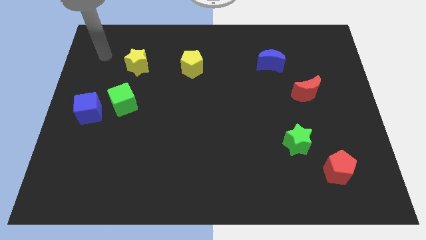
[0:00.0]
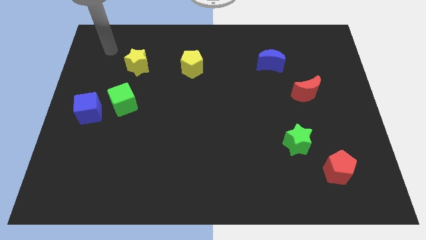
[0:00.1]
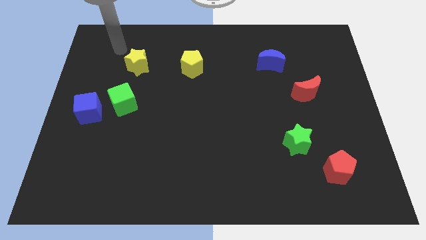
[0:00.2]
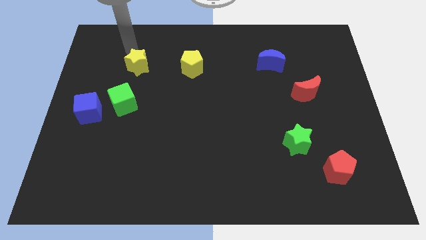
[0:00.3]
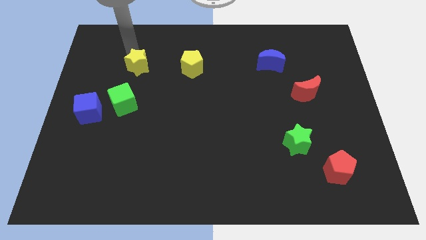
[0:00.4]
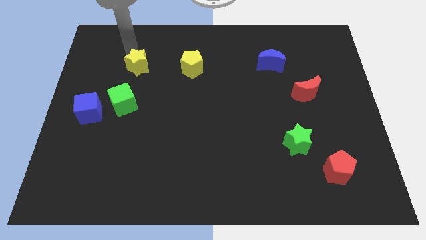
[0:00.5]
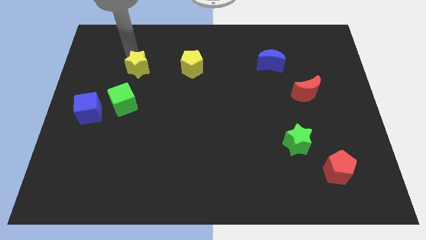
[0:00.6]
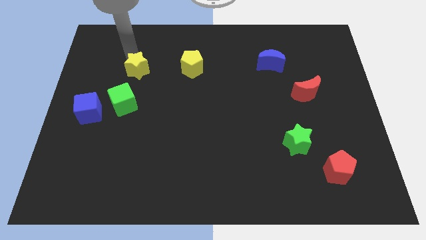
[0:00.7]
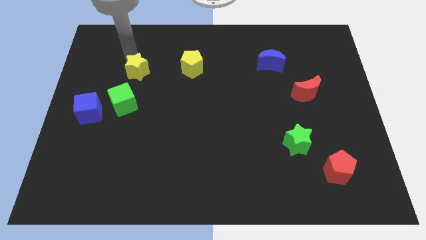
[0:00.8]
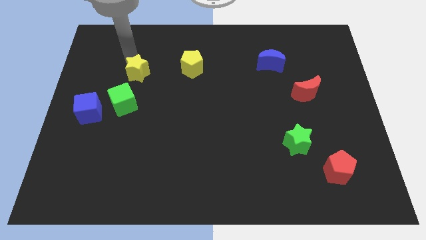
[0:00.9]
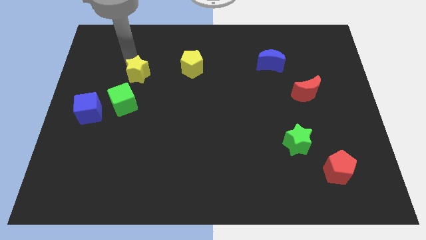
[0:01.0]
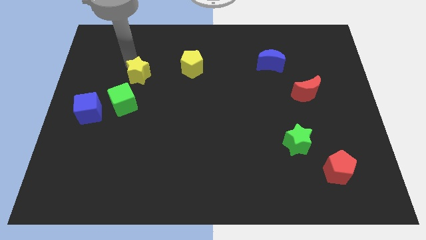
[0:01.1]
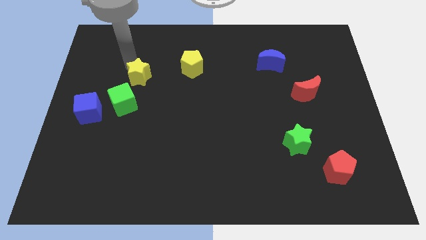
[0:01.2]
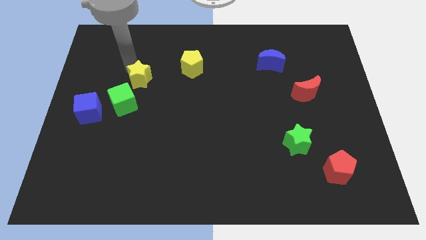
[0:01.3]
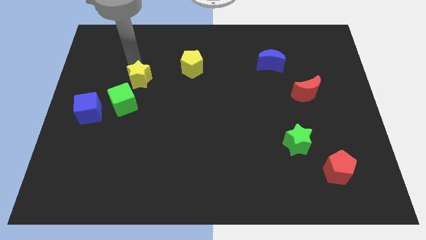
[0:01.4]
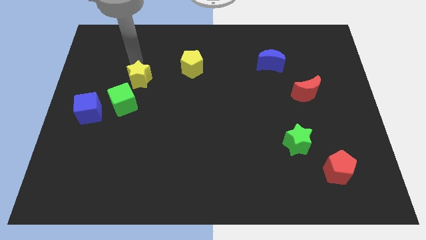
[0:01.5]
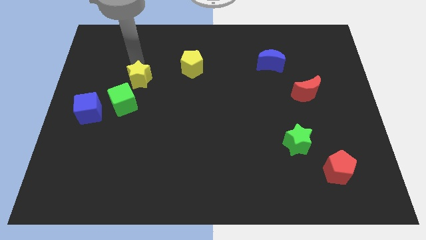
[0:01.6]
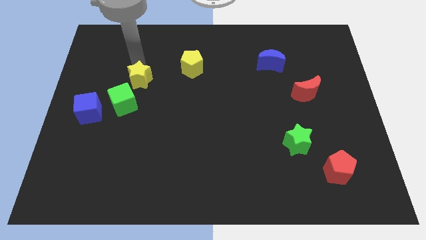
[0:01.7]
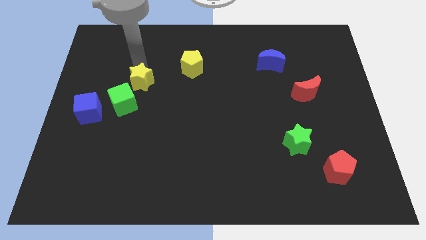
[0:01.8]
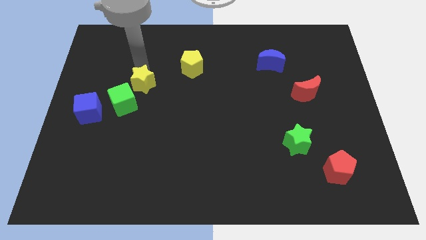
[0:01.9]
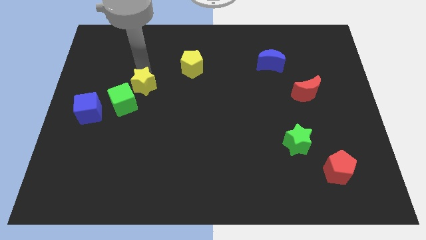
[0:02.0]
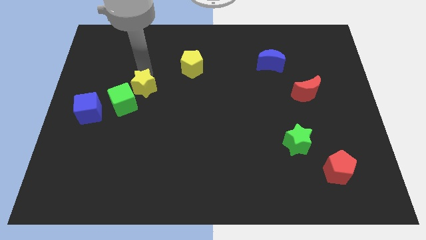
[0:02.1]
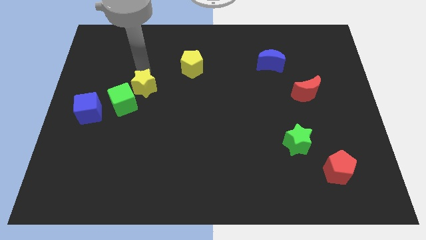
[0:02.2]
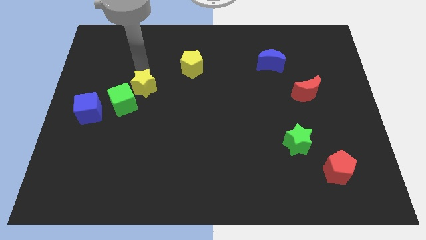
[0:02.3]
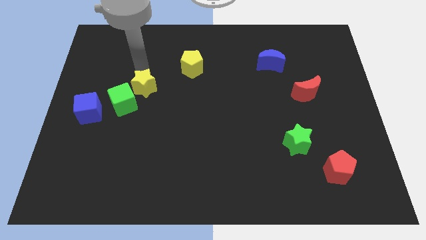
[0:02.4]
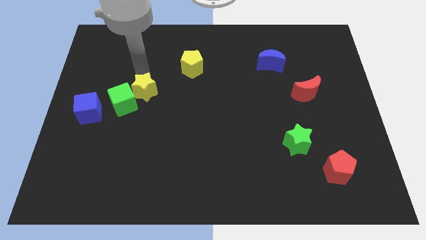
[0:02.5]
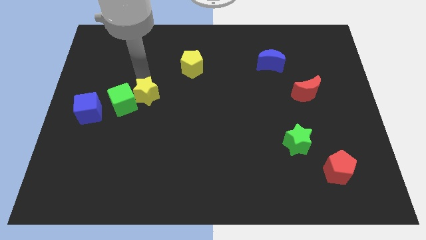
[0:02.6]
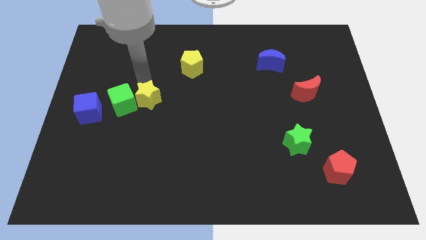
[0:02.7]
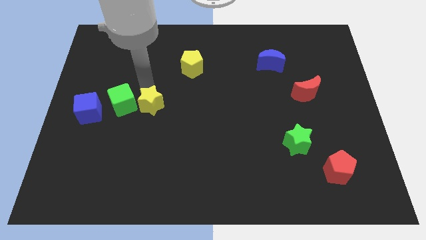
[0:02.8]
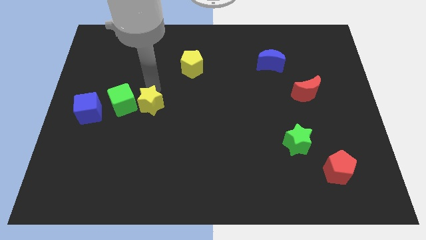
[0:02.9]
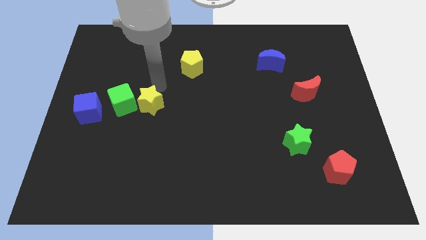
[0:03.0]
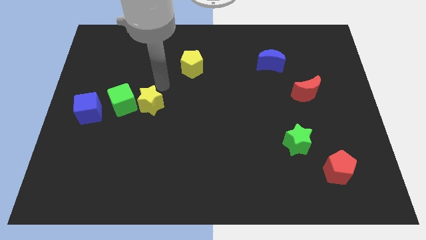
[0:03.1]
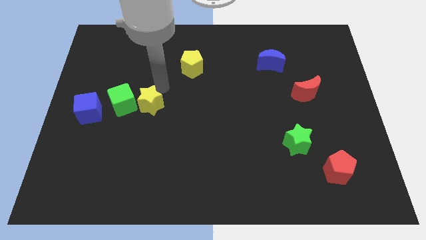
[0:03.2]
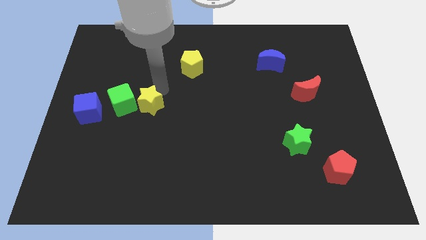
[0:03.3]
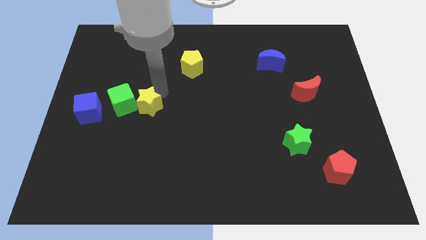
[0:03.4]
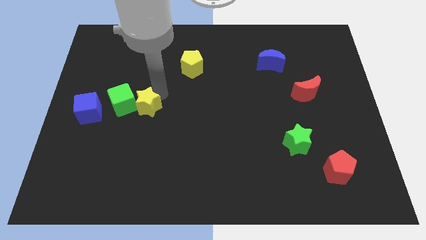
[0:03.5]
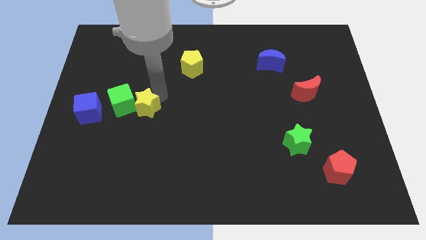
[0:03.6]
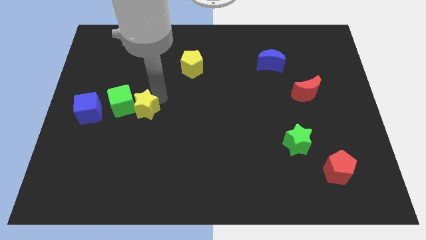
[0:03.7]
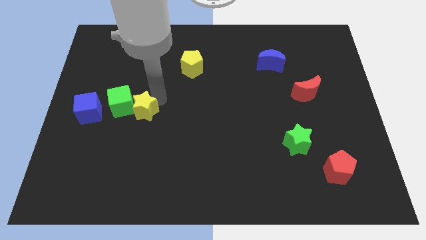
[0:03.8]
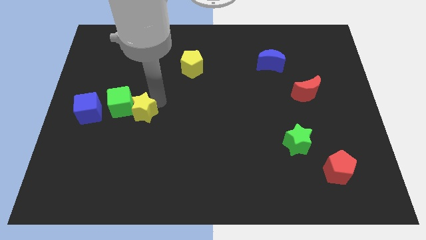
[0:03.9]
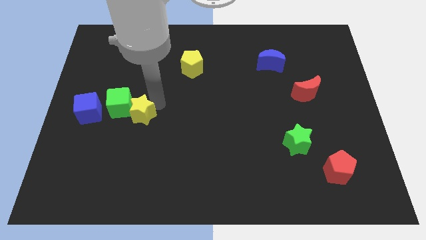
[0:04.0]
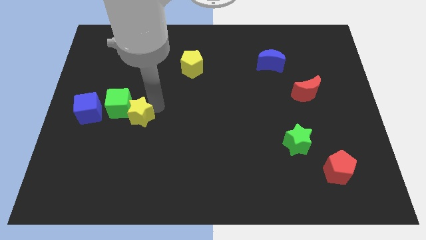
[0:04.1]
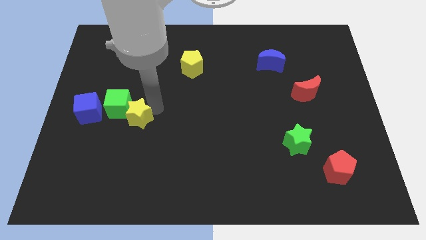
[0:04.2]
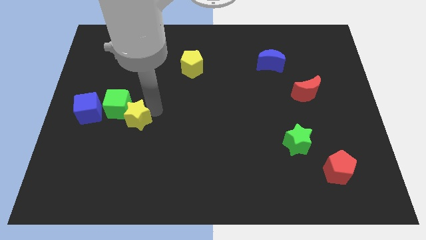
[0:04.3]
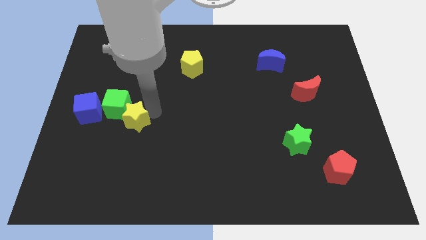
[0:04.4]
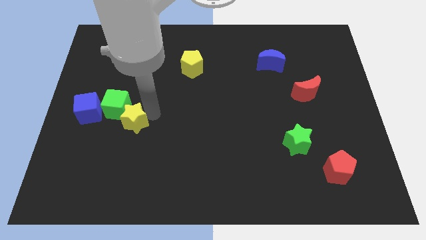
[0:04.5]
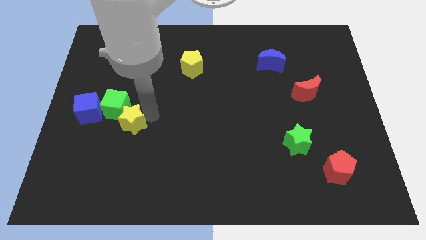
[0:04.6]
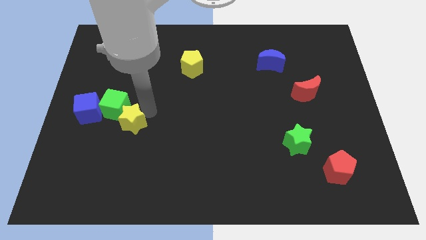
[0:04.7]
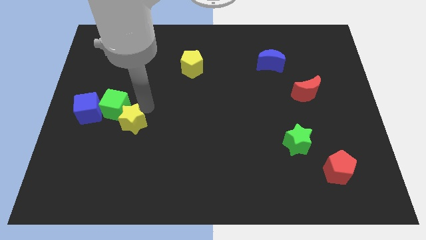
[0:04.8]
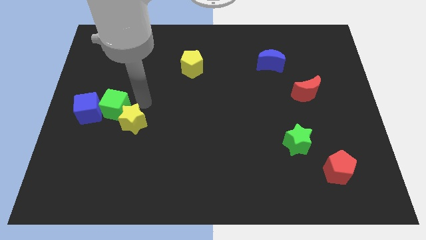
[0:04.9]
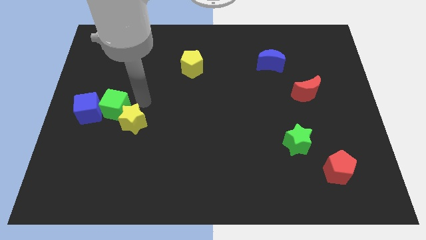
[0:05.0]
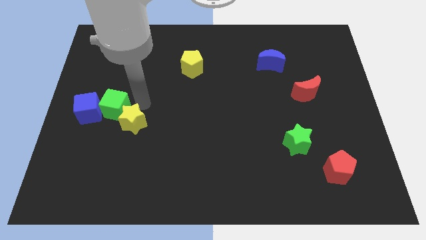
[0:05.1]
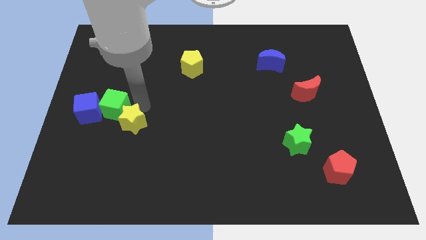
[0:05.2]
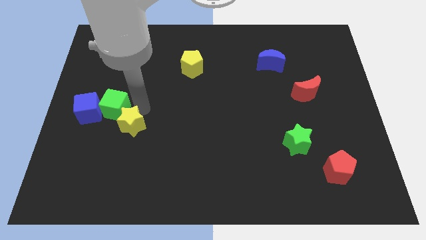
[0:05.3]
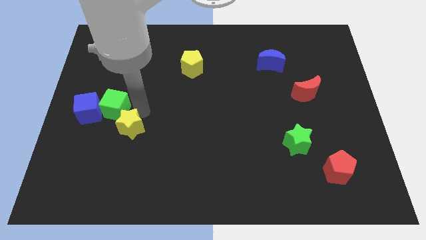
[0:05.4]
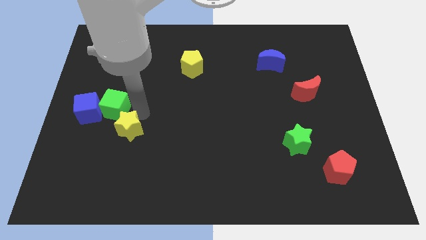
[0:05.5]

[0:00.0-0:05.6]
push the yellow star down

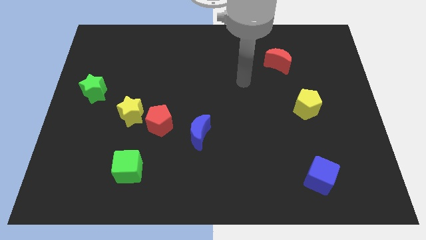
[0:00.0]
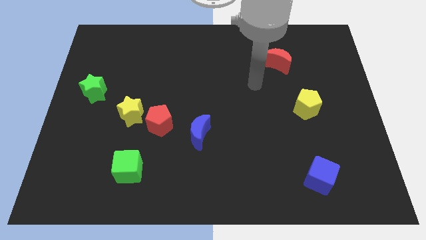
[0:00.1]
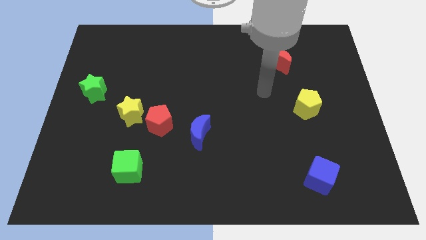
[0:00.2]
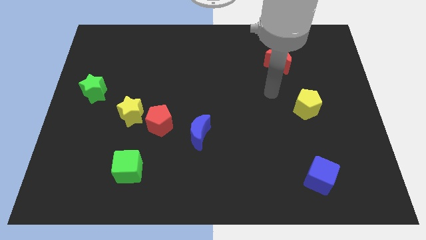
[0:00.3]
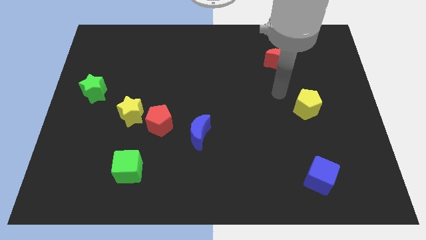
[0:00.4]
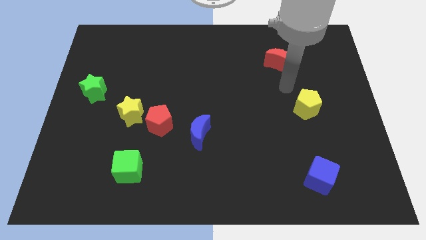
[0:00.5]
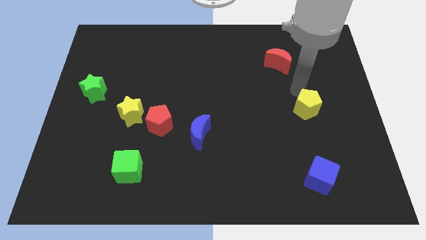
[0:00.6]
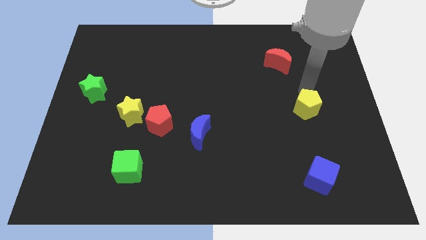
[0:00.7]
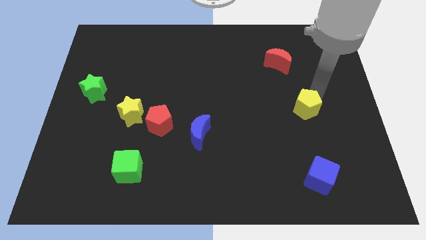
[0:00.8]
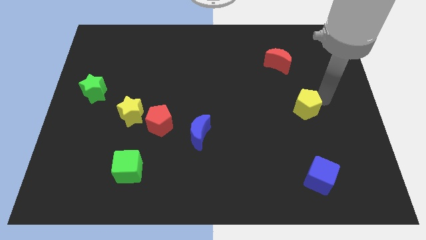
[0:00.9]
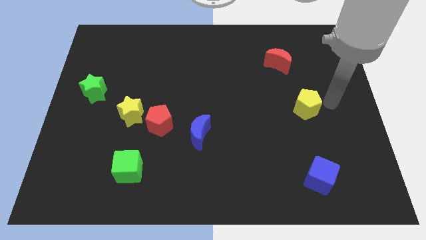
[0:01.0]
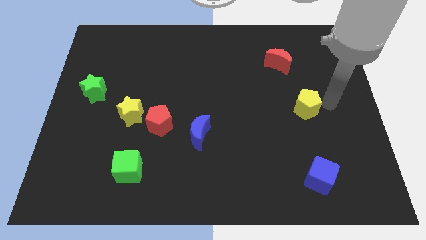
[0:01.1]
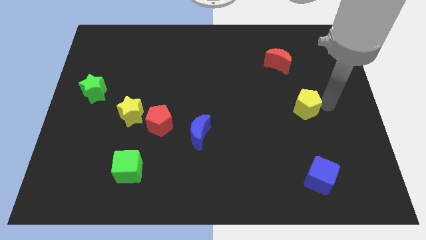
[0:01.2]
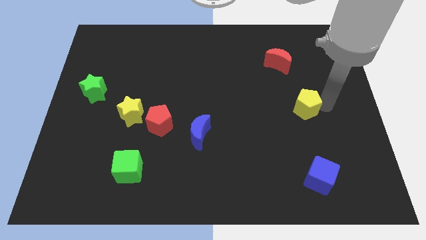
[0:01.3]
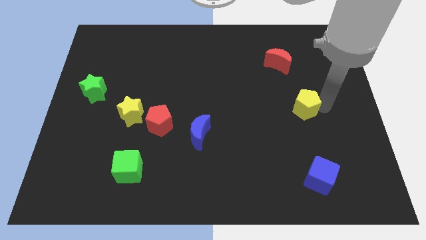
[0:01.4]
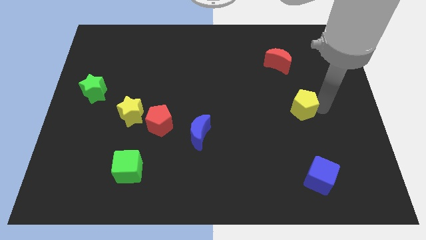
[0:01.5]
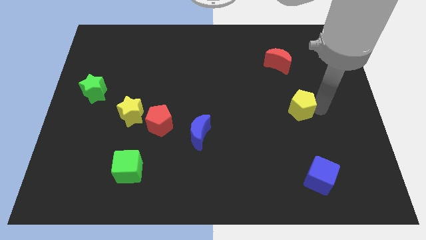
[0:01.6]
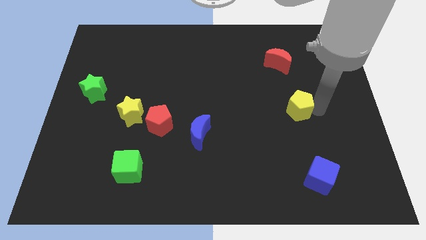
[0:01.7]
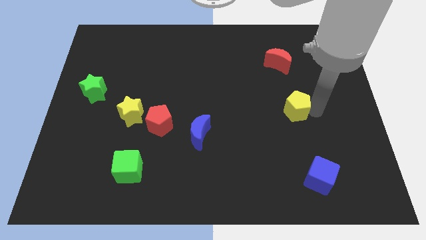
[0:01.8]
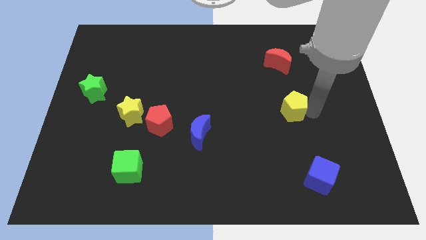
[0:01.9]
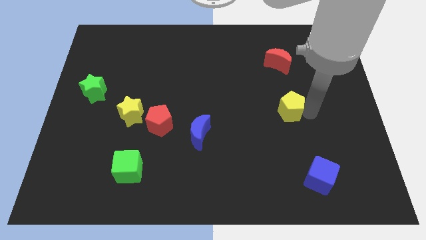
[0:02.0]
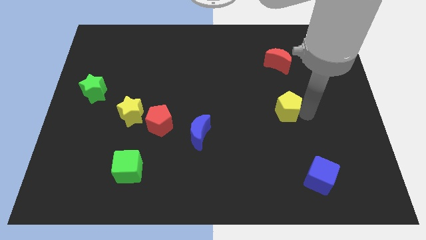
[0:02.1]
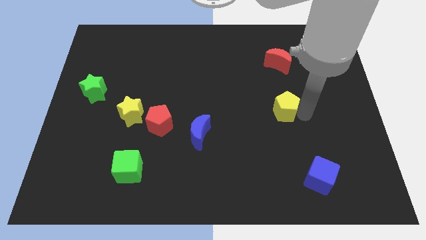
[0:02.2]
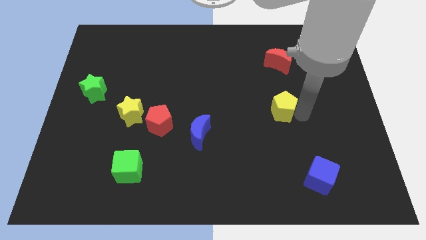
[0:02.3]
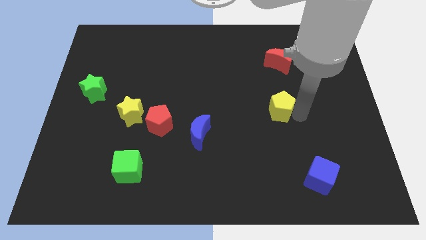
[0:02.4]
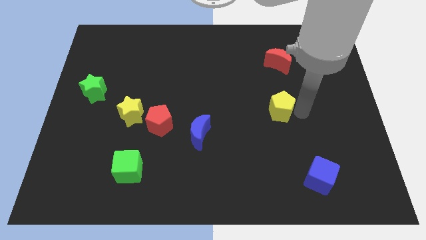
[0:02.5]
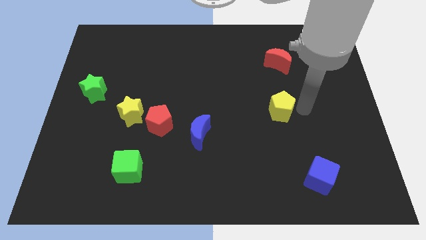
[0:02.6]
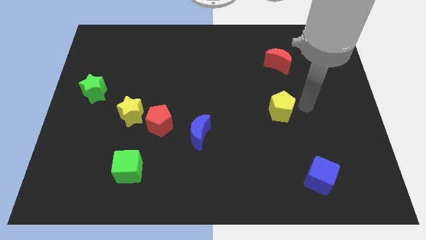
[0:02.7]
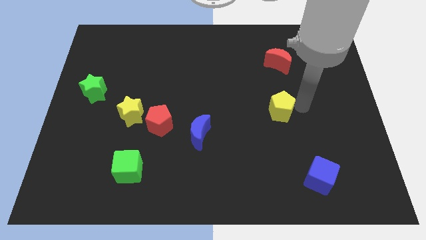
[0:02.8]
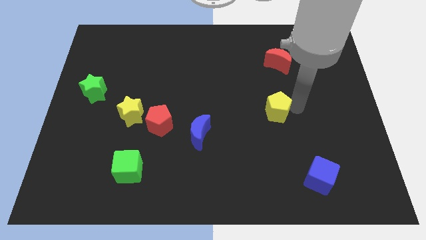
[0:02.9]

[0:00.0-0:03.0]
move the yellow pentagon left a little
